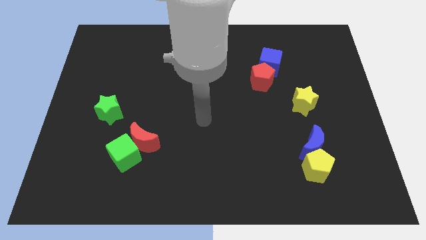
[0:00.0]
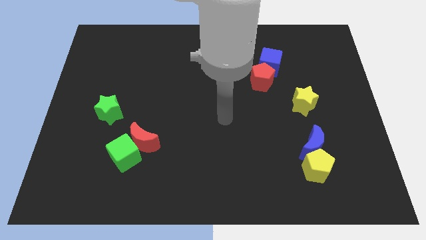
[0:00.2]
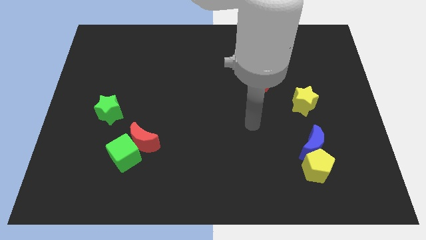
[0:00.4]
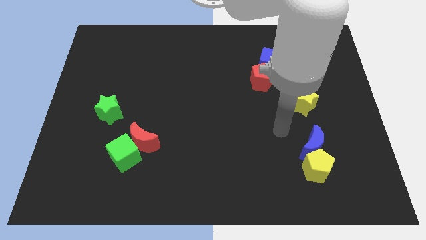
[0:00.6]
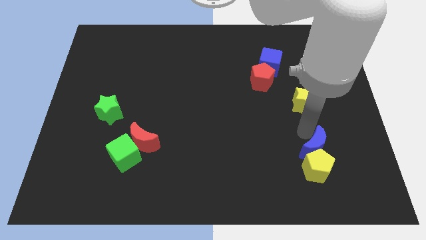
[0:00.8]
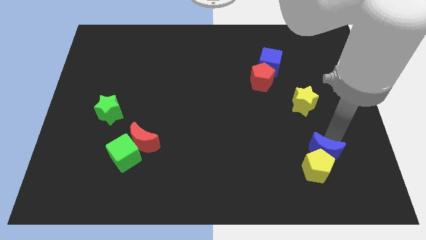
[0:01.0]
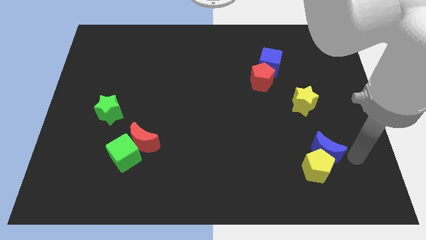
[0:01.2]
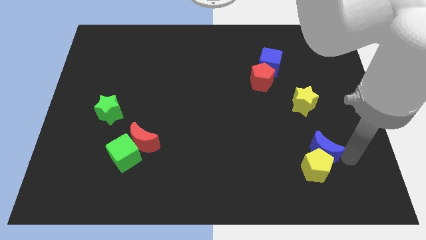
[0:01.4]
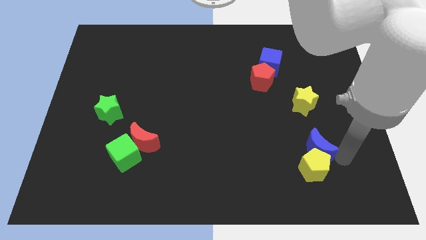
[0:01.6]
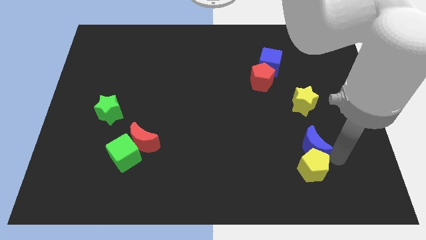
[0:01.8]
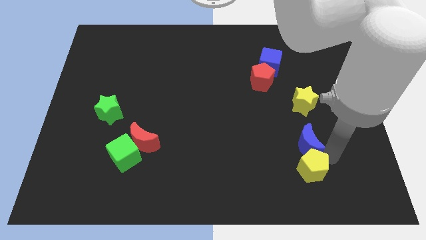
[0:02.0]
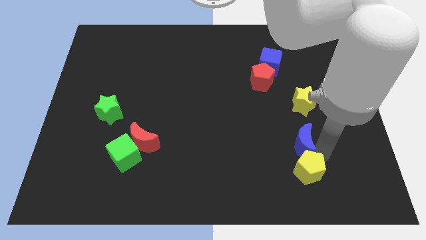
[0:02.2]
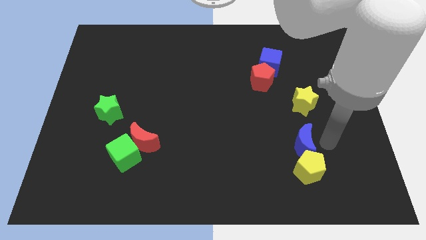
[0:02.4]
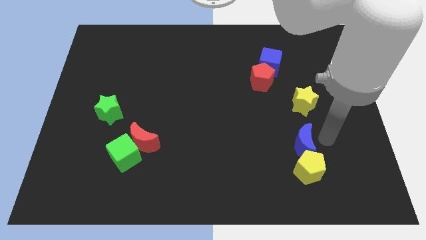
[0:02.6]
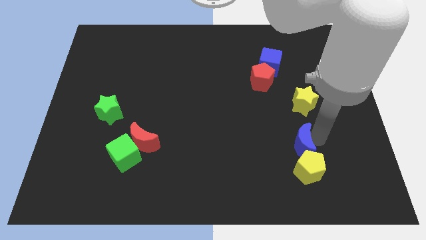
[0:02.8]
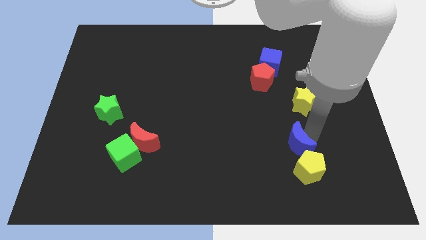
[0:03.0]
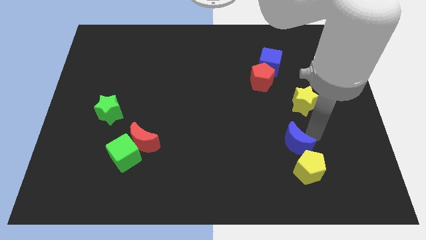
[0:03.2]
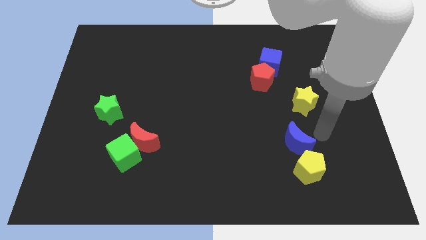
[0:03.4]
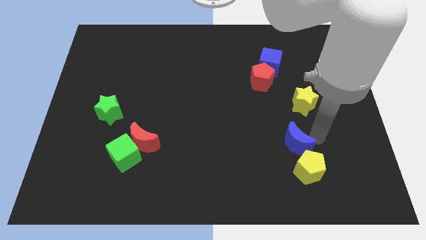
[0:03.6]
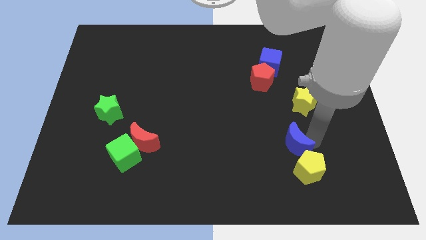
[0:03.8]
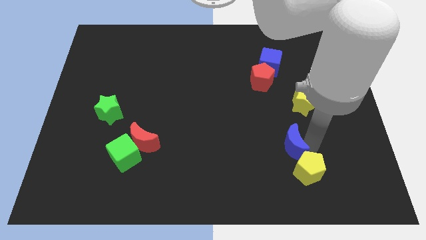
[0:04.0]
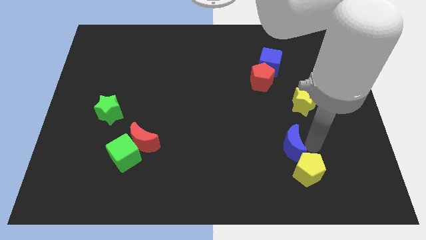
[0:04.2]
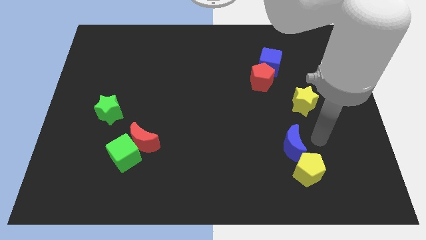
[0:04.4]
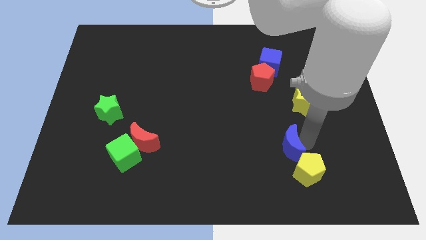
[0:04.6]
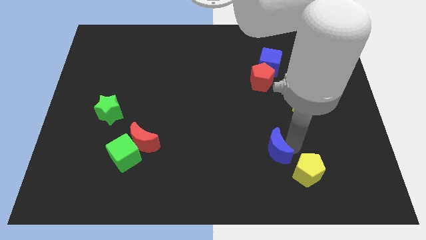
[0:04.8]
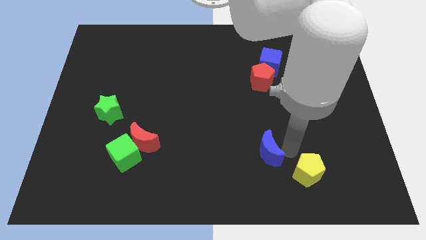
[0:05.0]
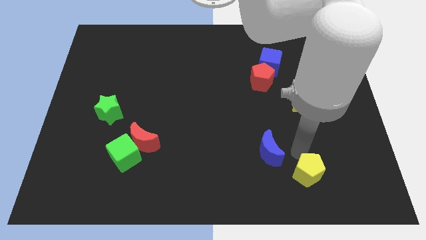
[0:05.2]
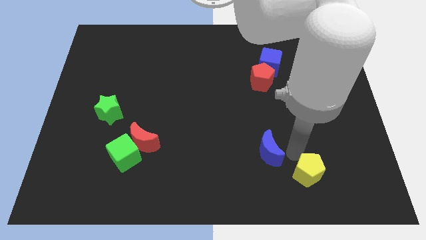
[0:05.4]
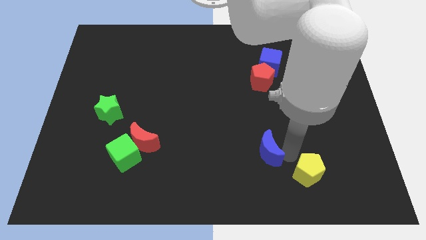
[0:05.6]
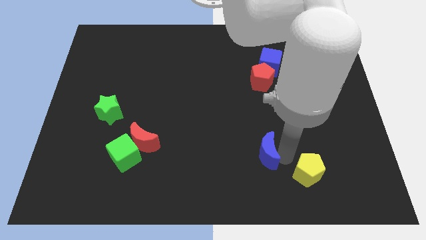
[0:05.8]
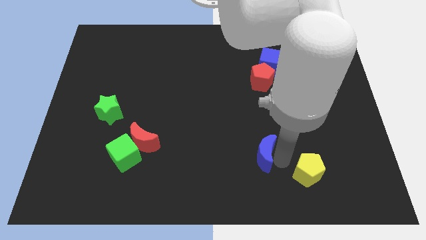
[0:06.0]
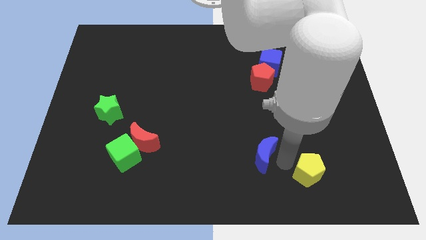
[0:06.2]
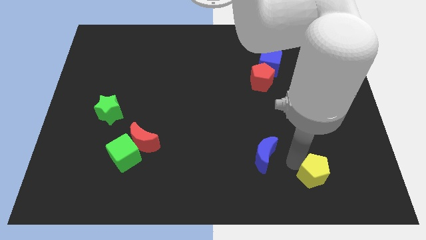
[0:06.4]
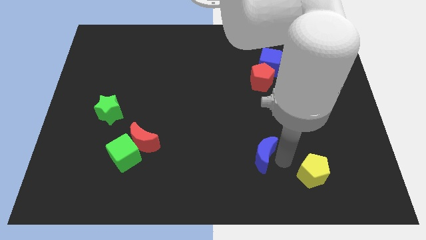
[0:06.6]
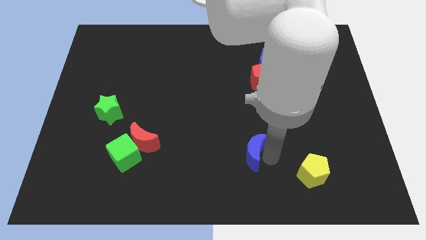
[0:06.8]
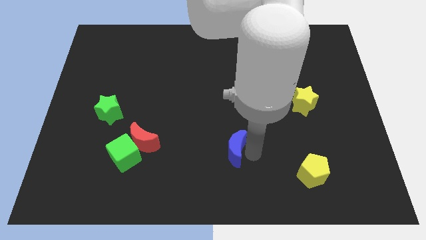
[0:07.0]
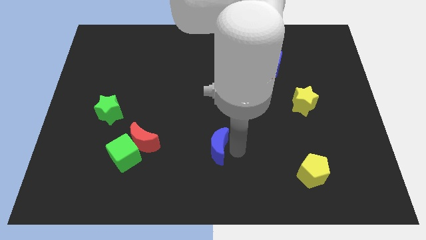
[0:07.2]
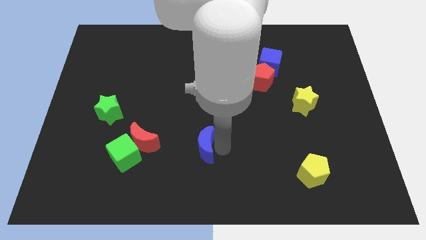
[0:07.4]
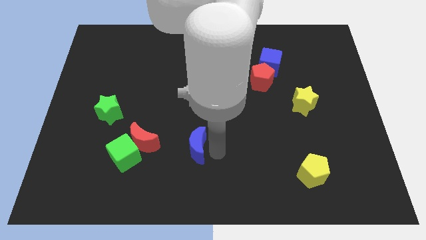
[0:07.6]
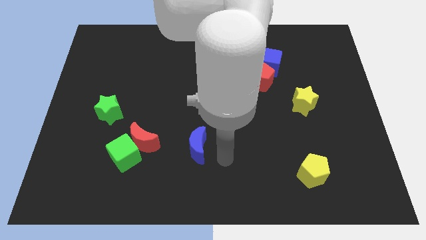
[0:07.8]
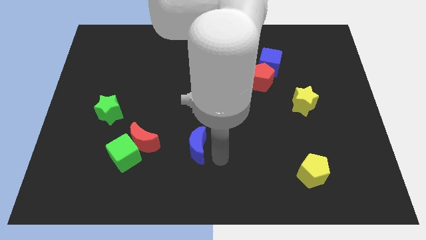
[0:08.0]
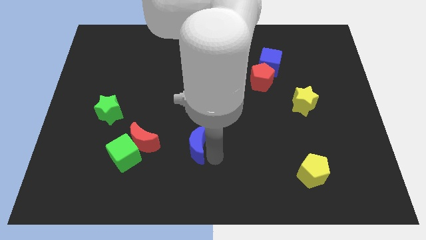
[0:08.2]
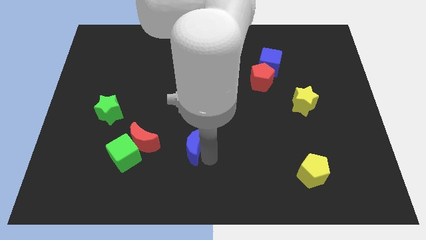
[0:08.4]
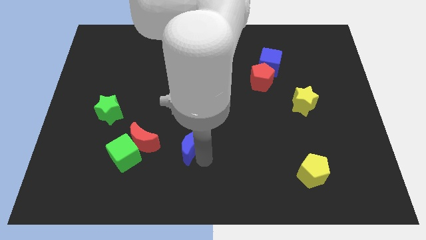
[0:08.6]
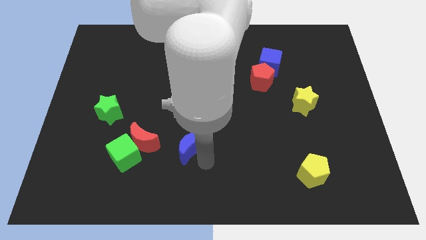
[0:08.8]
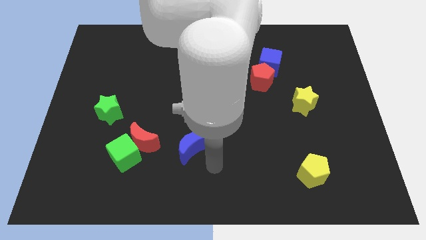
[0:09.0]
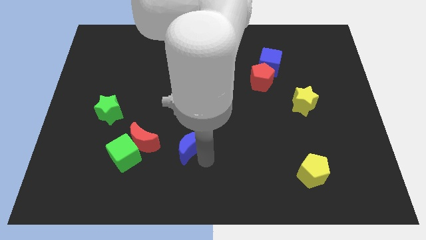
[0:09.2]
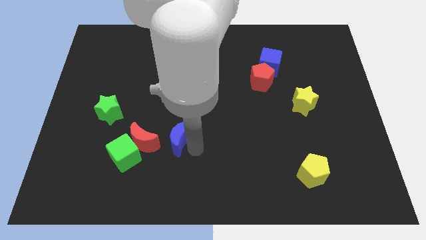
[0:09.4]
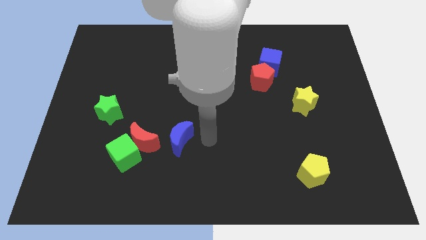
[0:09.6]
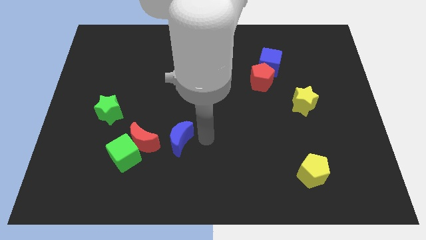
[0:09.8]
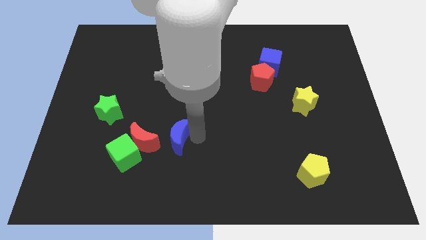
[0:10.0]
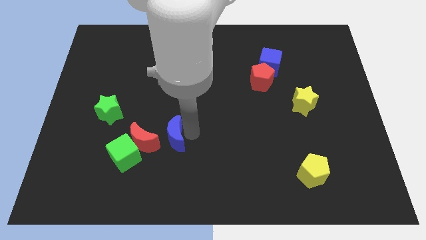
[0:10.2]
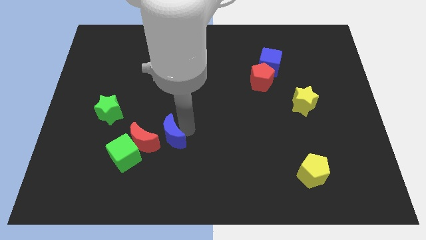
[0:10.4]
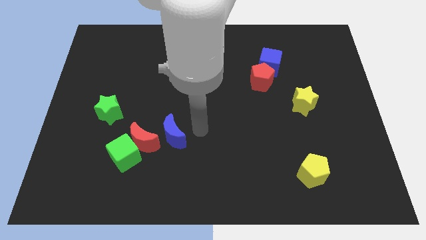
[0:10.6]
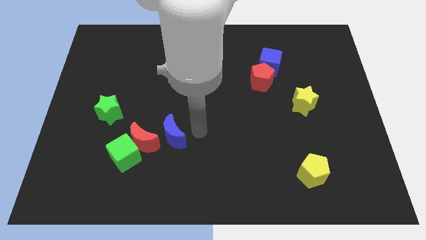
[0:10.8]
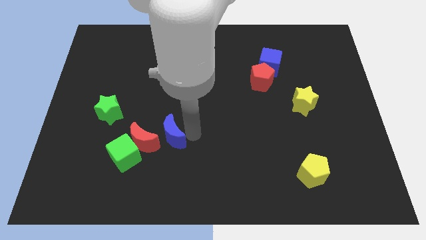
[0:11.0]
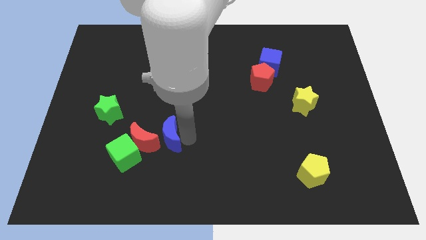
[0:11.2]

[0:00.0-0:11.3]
push the blue moon close to the red moon
